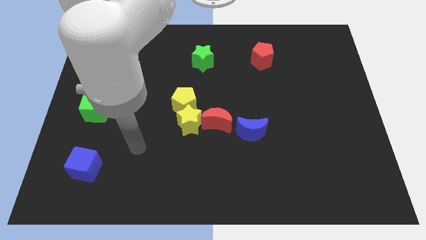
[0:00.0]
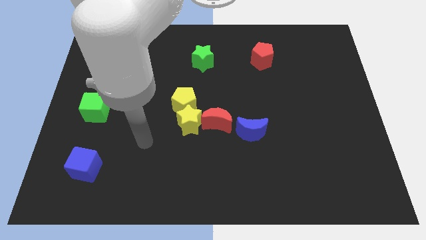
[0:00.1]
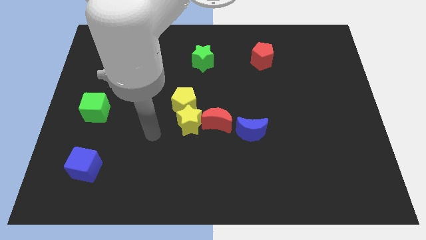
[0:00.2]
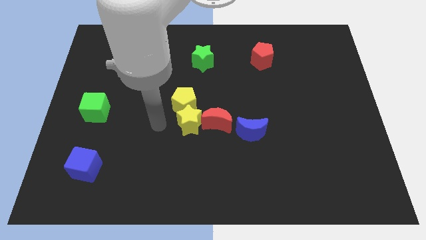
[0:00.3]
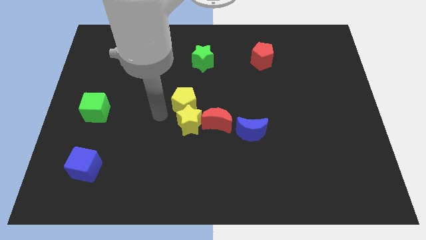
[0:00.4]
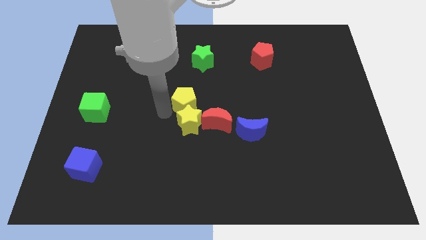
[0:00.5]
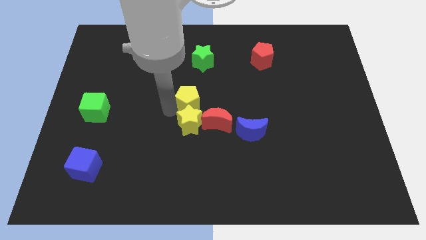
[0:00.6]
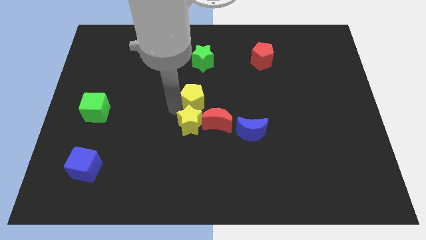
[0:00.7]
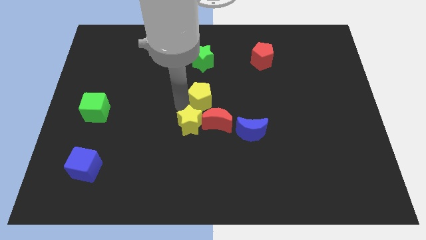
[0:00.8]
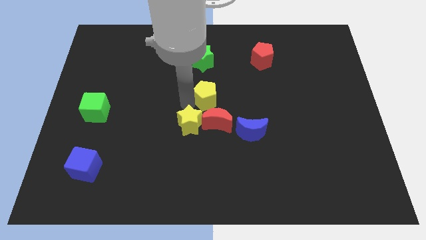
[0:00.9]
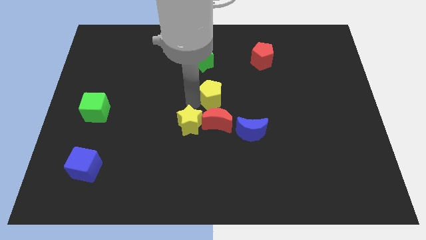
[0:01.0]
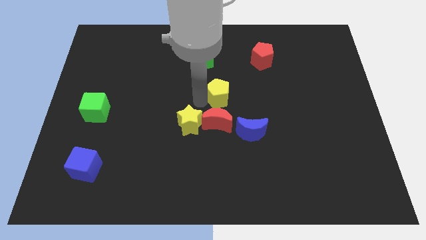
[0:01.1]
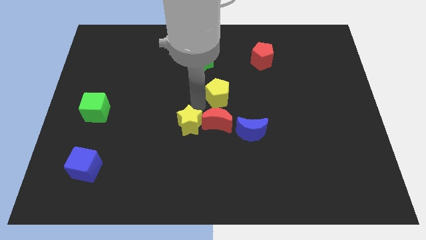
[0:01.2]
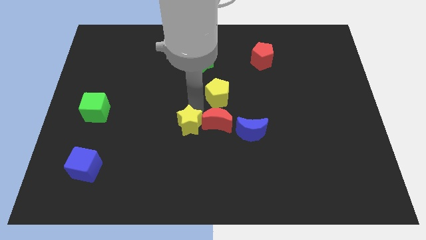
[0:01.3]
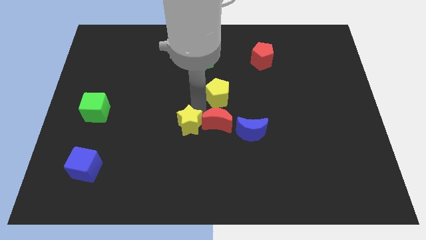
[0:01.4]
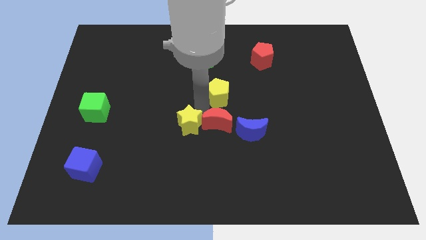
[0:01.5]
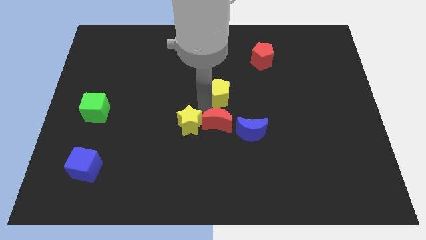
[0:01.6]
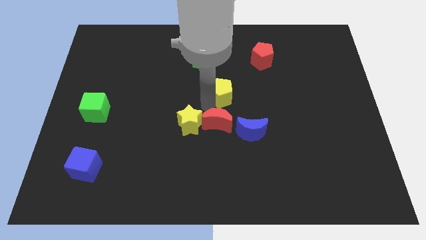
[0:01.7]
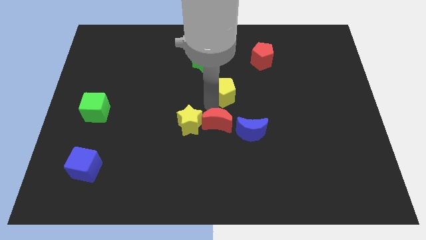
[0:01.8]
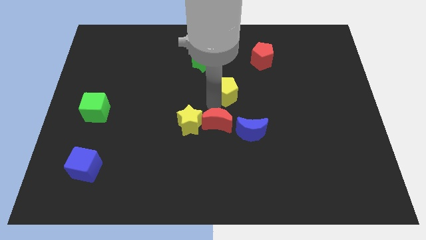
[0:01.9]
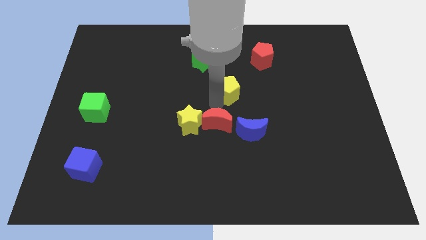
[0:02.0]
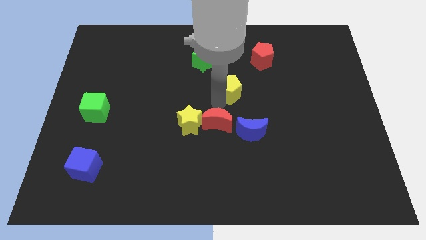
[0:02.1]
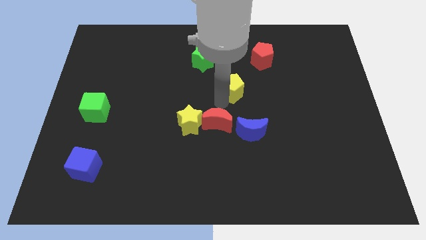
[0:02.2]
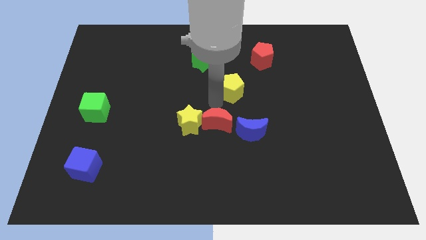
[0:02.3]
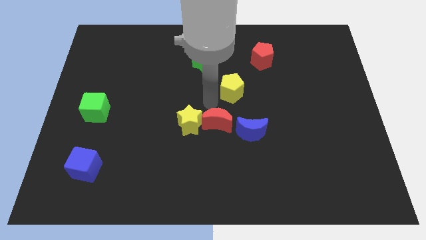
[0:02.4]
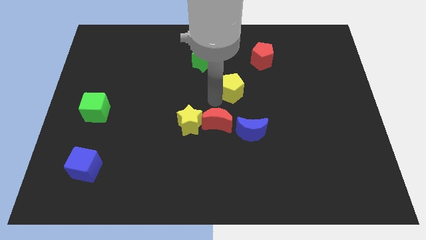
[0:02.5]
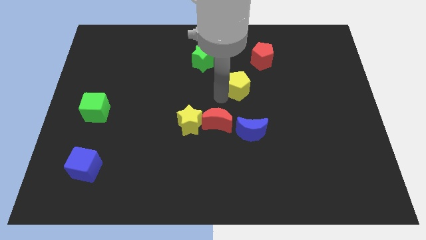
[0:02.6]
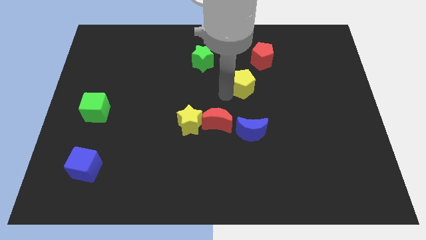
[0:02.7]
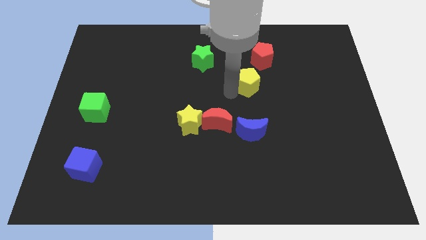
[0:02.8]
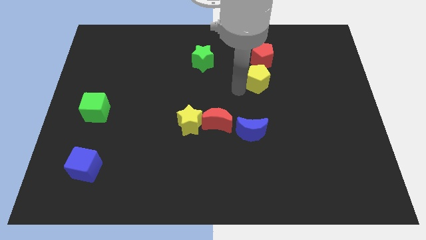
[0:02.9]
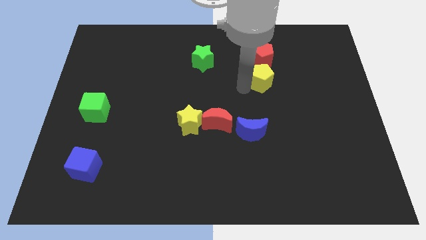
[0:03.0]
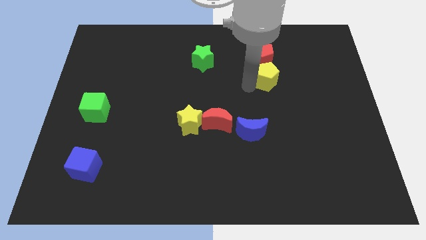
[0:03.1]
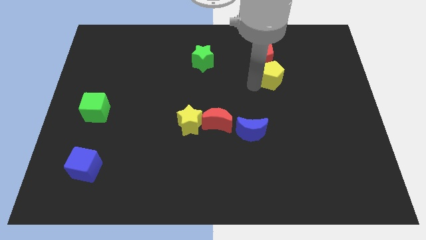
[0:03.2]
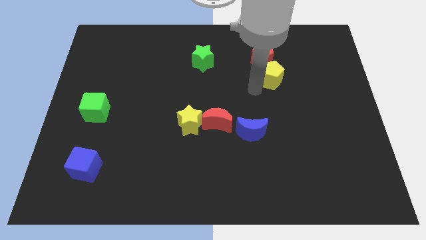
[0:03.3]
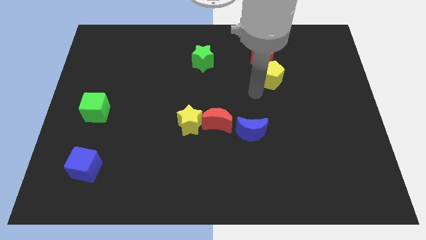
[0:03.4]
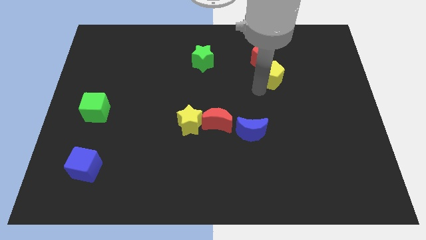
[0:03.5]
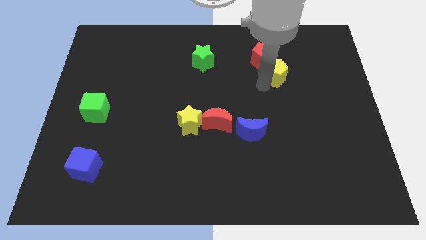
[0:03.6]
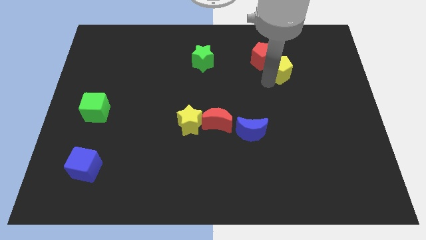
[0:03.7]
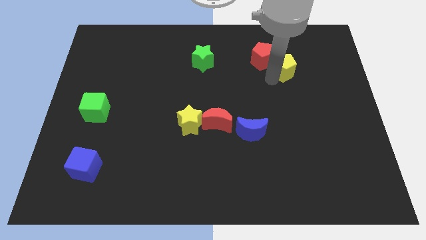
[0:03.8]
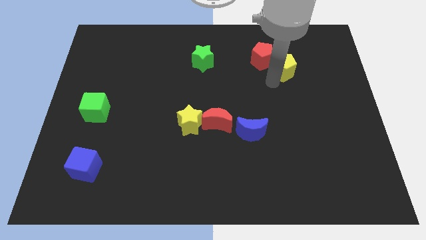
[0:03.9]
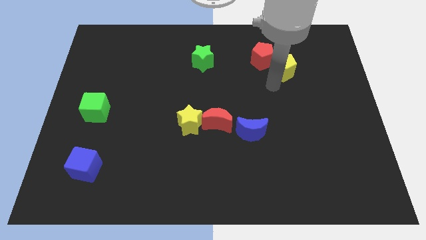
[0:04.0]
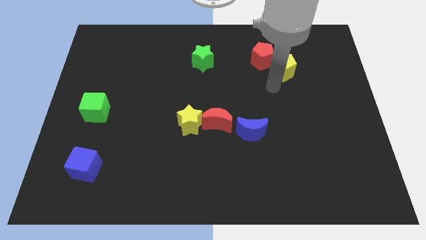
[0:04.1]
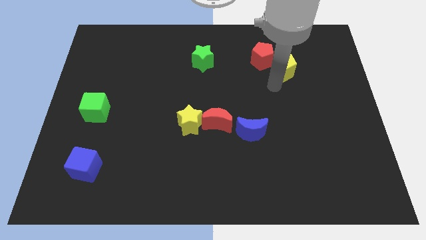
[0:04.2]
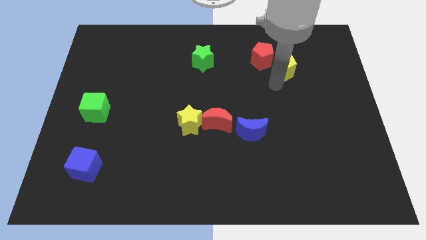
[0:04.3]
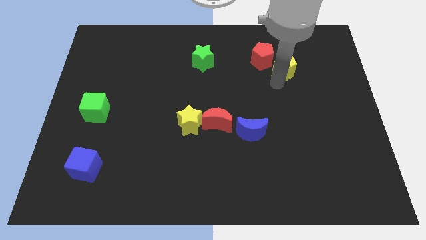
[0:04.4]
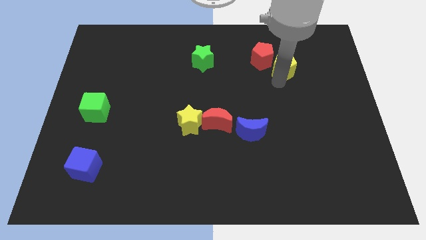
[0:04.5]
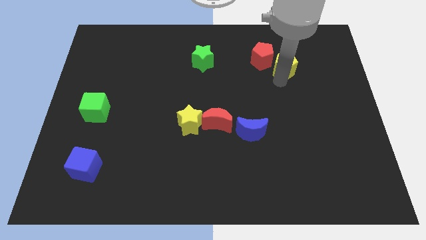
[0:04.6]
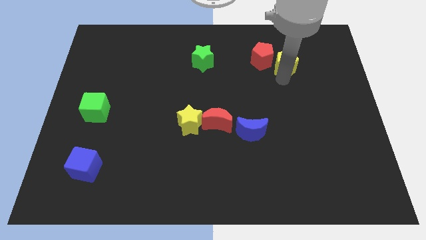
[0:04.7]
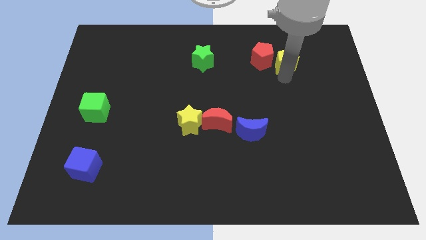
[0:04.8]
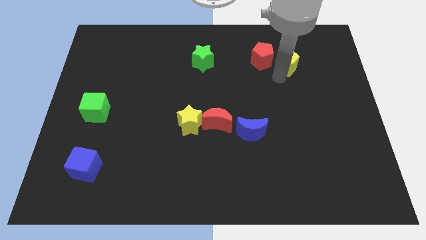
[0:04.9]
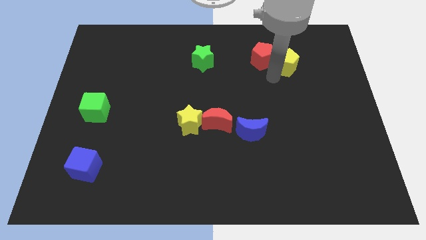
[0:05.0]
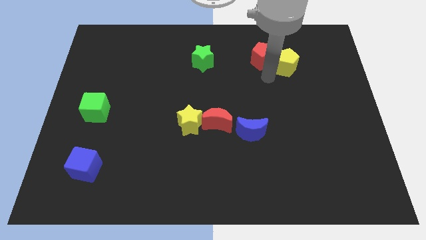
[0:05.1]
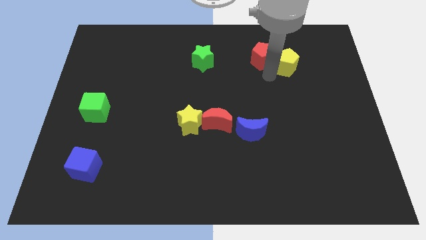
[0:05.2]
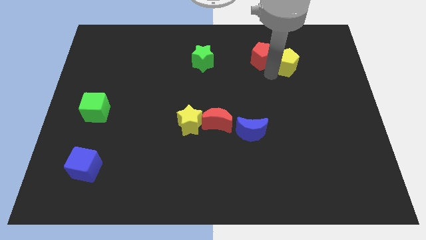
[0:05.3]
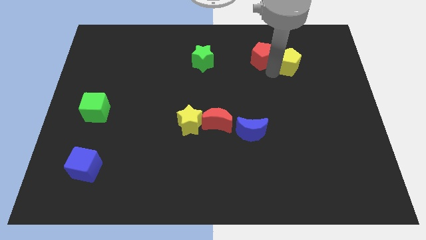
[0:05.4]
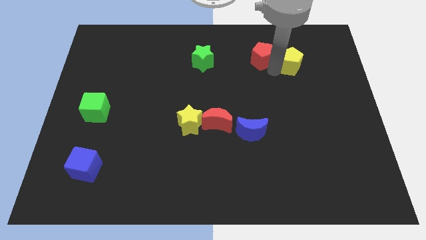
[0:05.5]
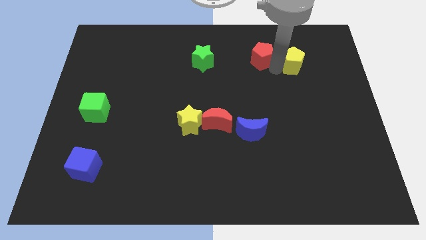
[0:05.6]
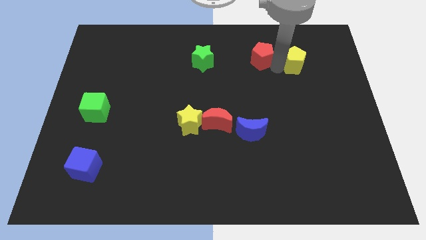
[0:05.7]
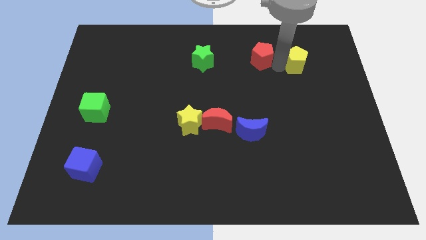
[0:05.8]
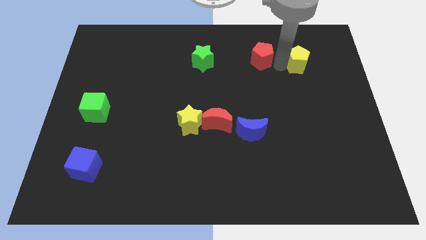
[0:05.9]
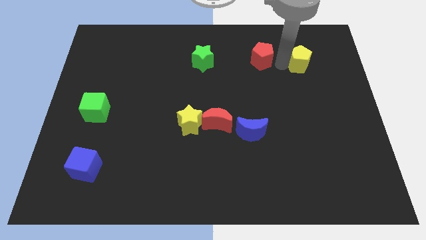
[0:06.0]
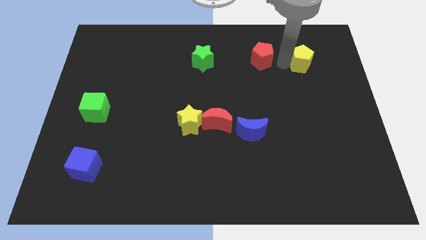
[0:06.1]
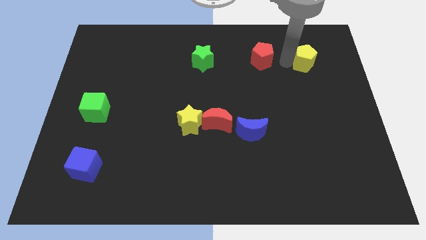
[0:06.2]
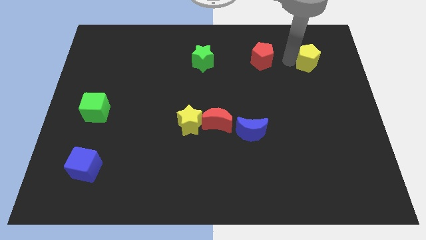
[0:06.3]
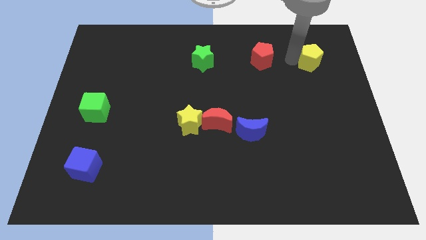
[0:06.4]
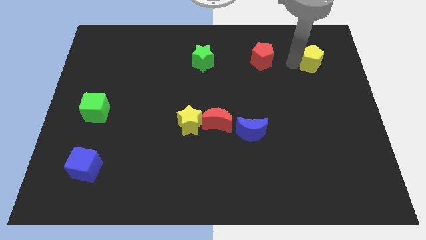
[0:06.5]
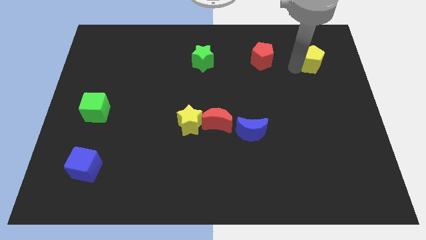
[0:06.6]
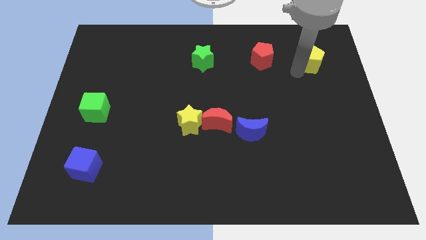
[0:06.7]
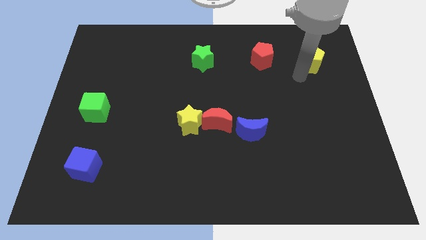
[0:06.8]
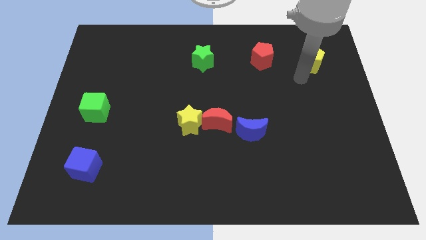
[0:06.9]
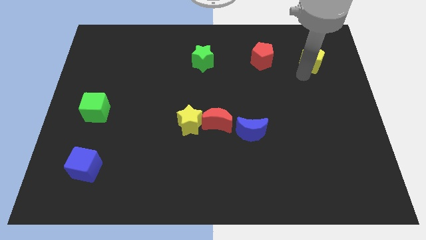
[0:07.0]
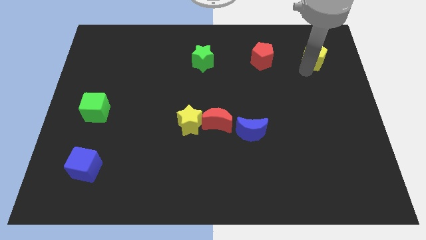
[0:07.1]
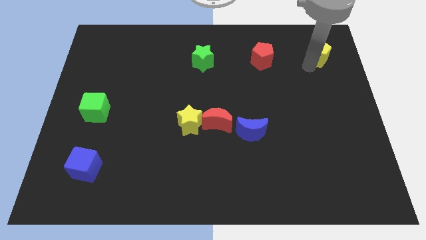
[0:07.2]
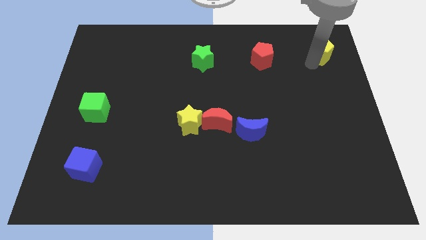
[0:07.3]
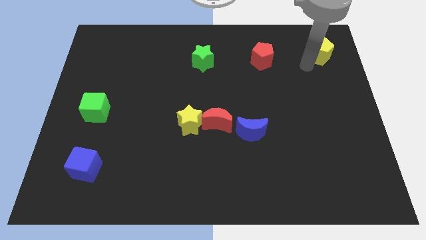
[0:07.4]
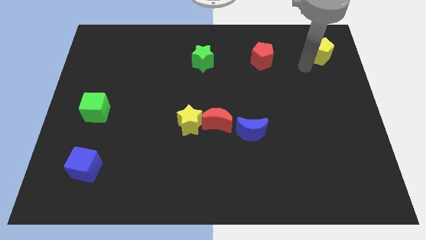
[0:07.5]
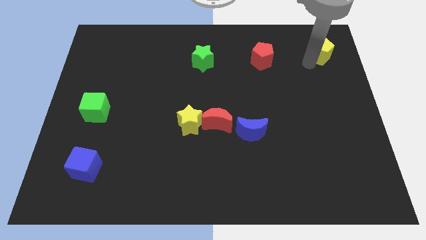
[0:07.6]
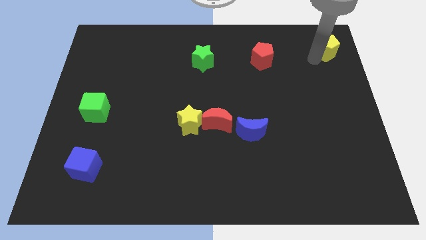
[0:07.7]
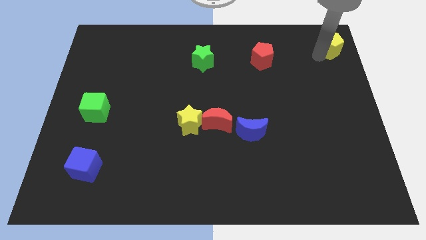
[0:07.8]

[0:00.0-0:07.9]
push the yellow pentagon to the top right
